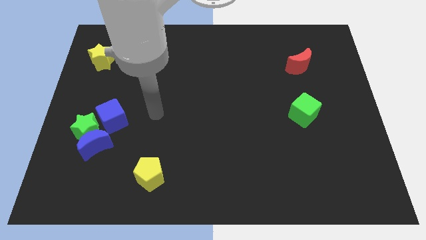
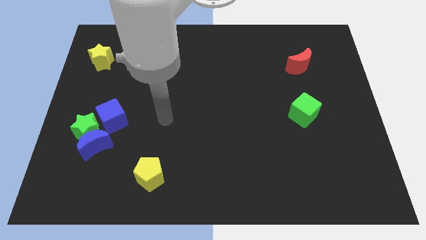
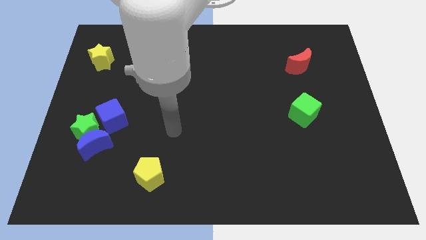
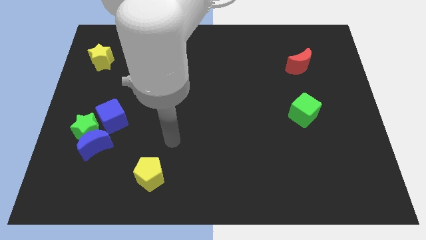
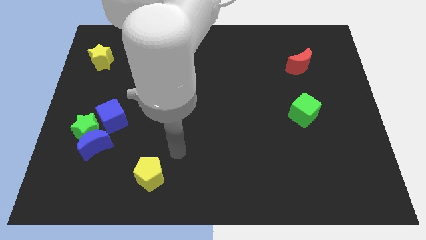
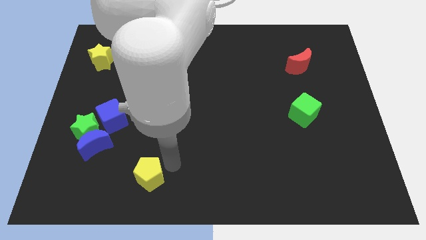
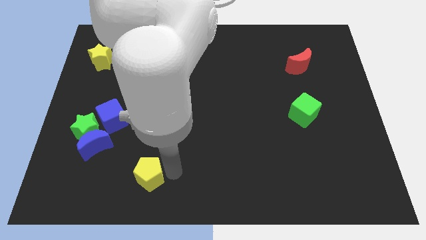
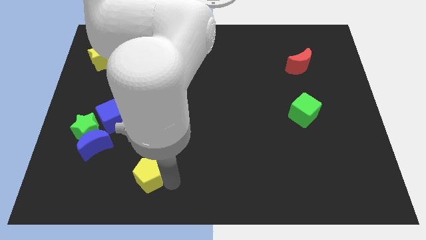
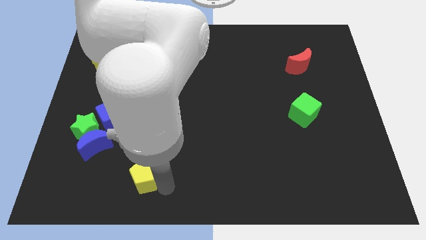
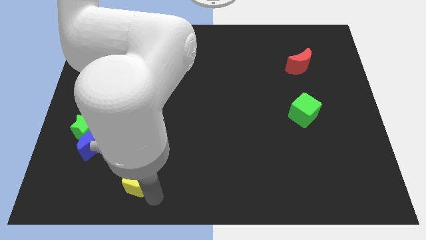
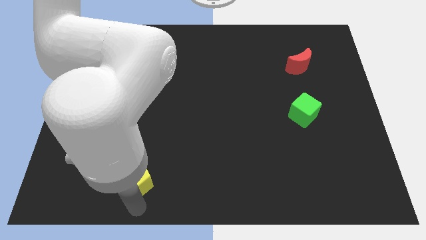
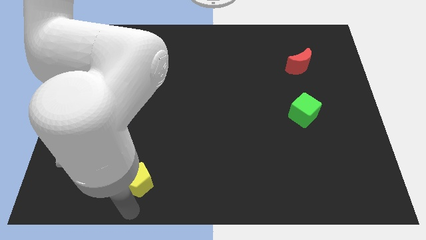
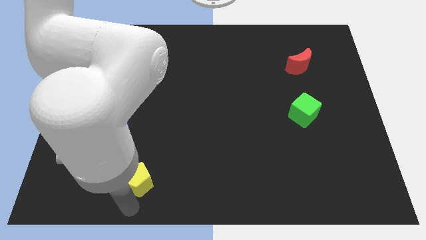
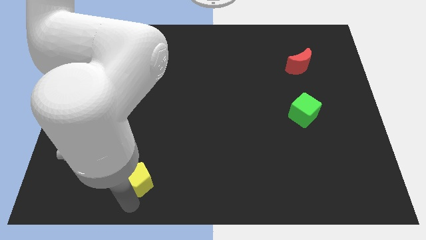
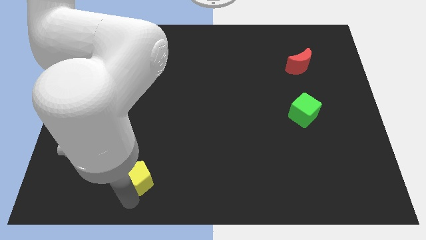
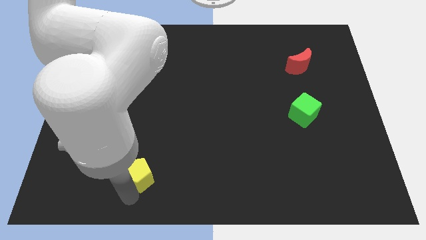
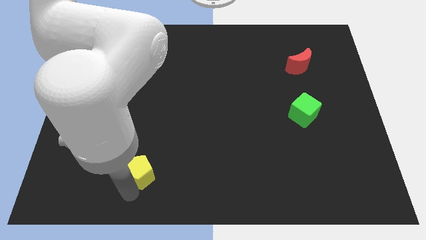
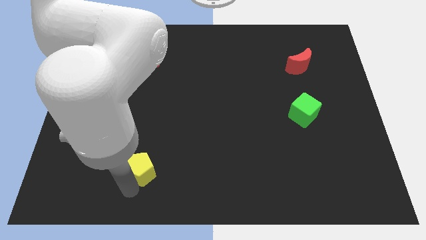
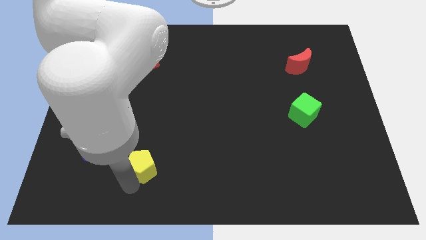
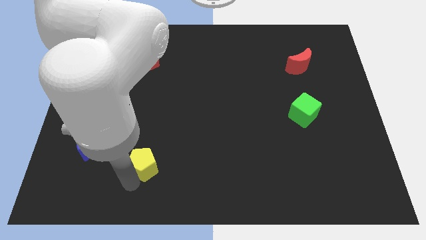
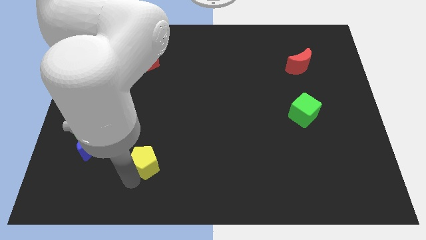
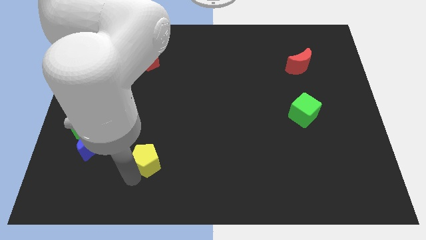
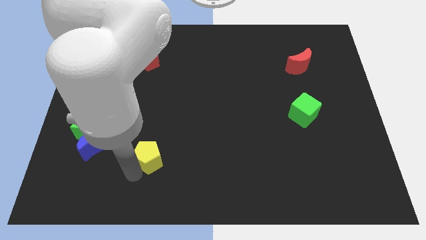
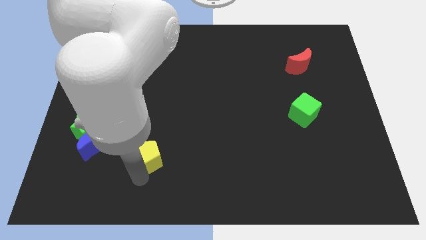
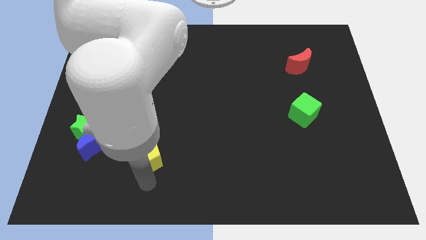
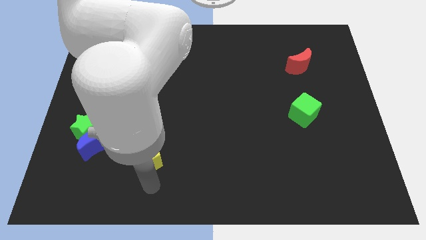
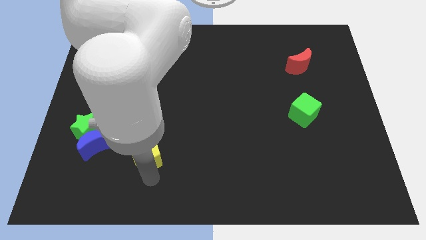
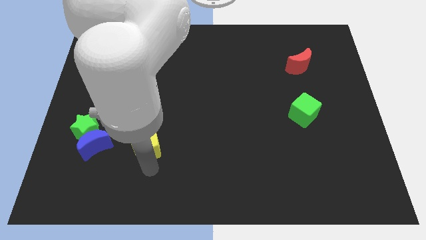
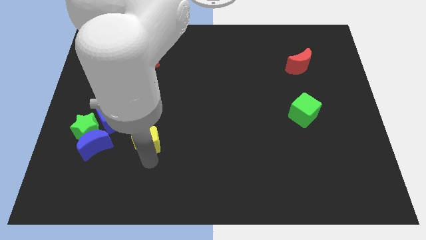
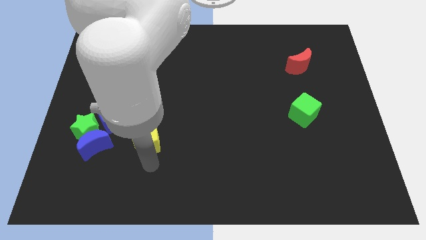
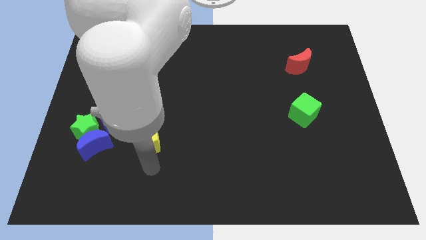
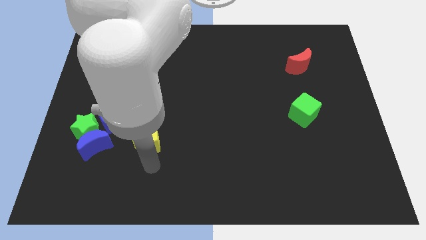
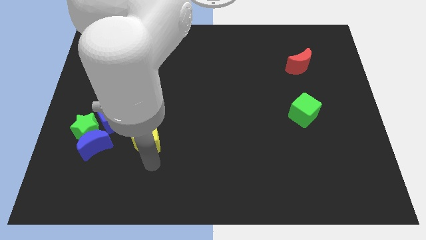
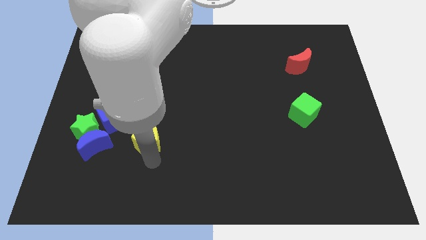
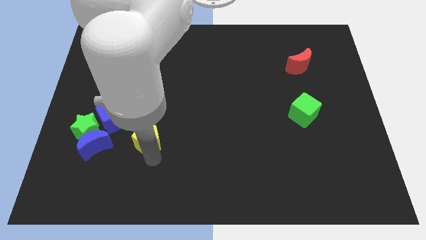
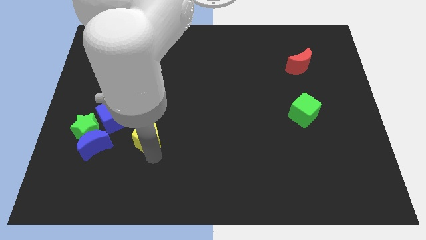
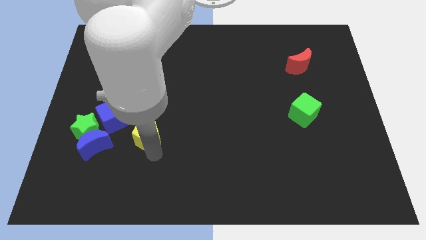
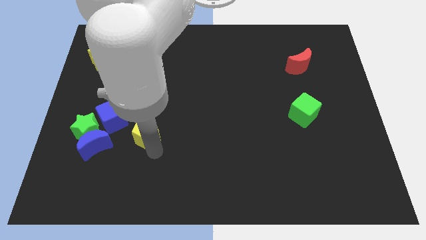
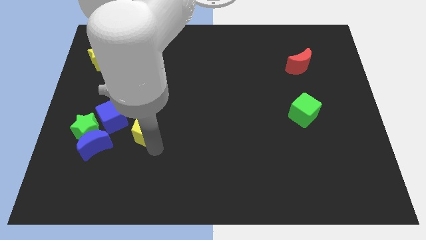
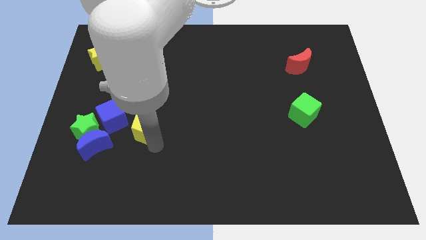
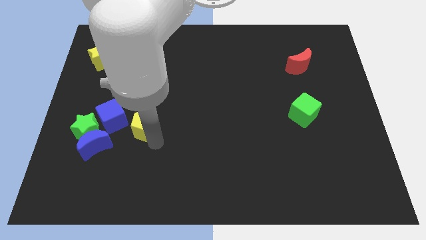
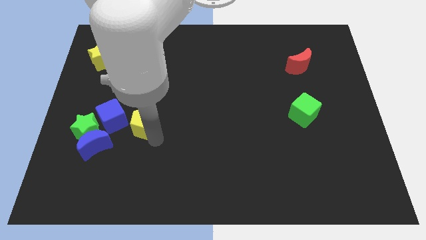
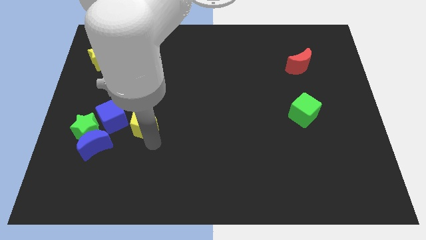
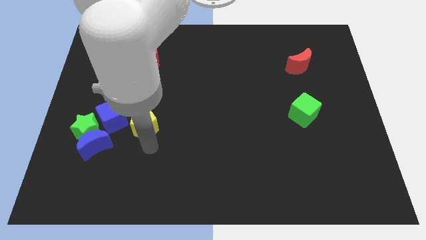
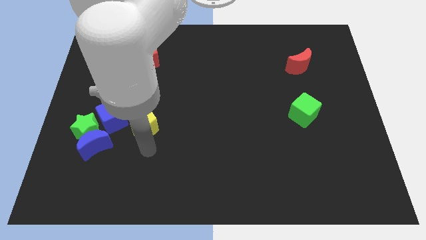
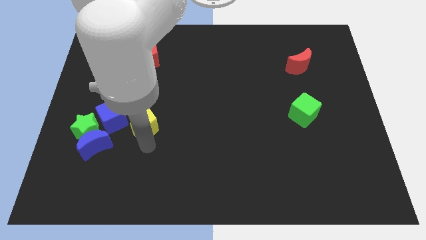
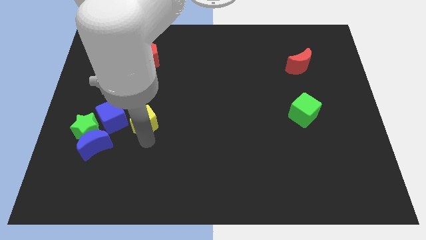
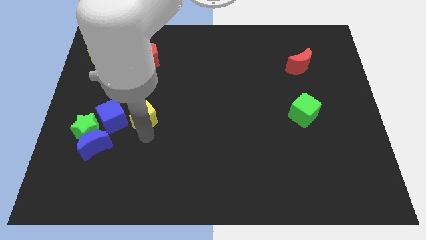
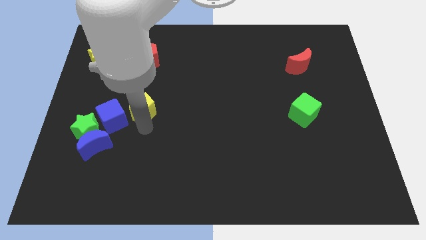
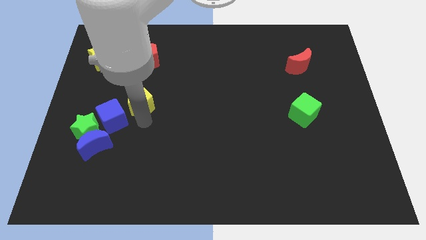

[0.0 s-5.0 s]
put the yellow pentagon below the red pentagon

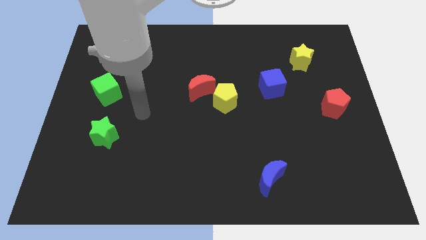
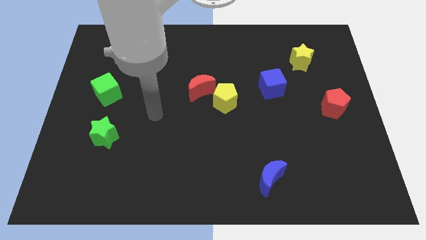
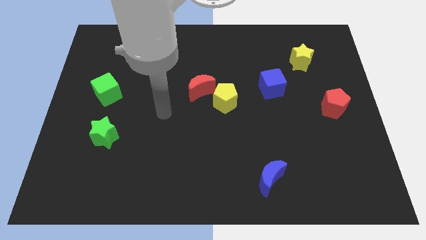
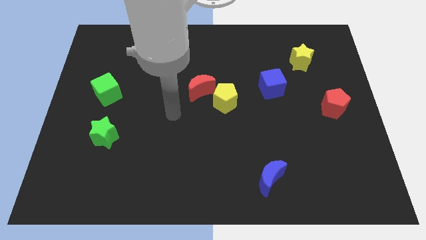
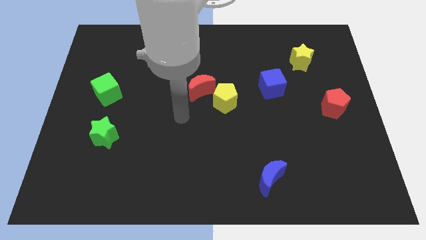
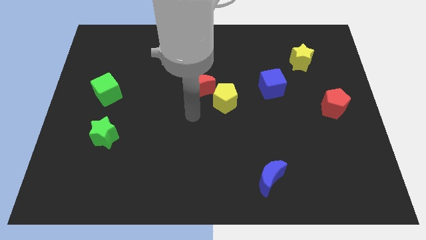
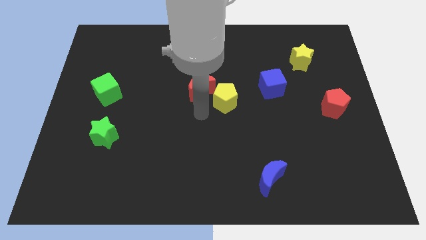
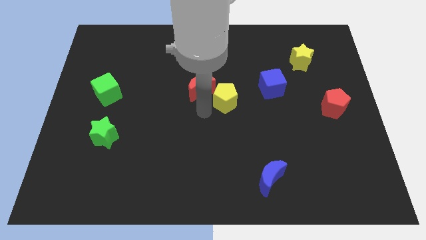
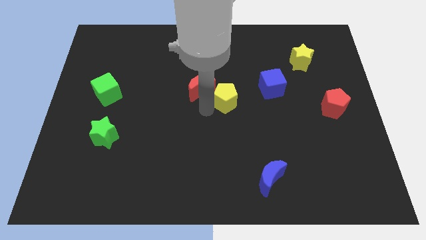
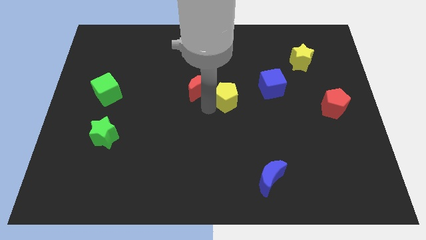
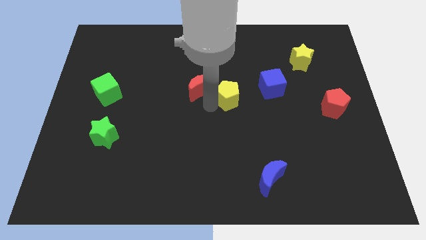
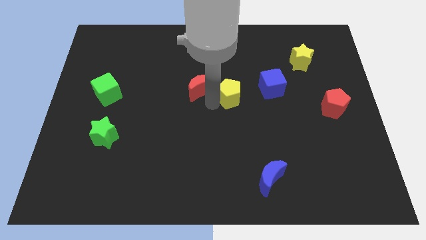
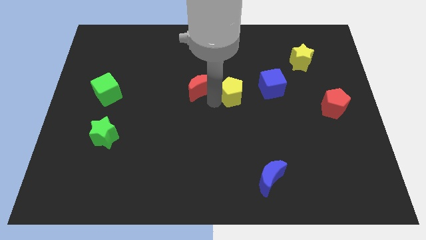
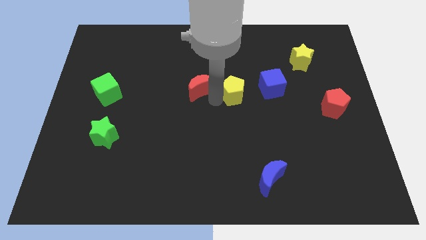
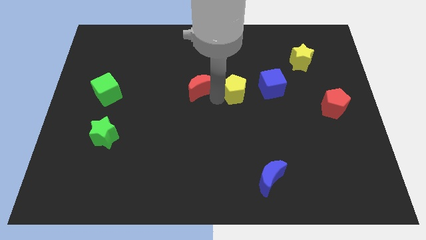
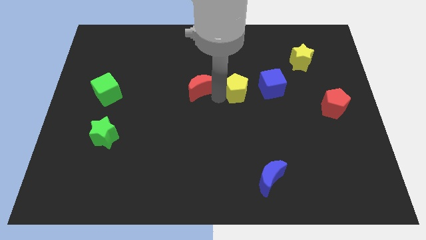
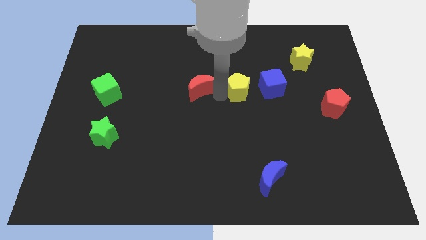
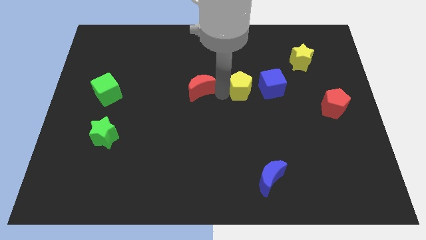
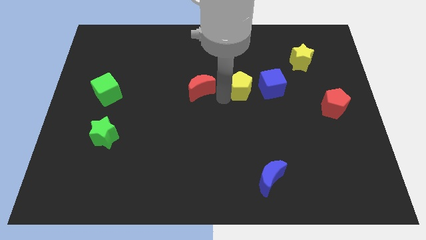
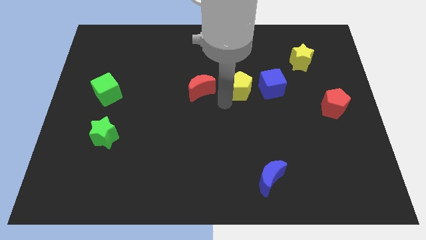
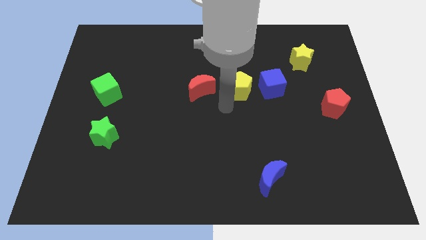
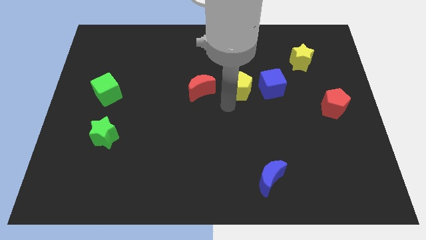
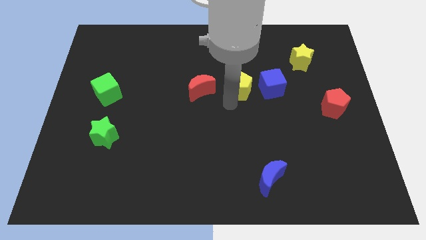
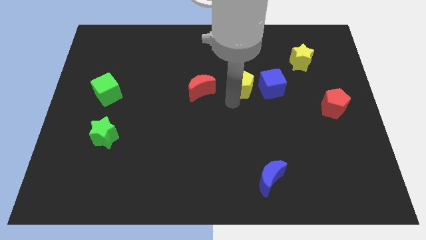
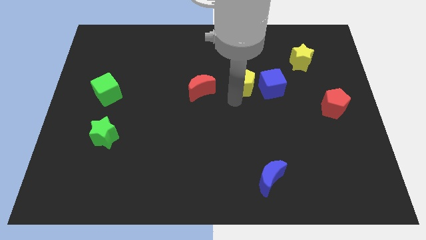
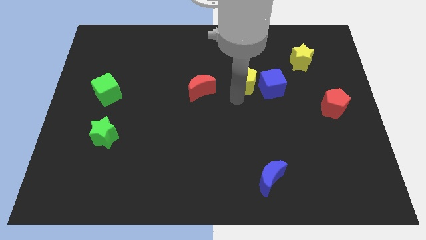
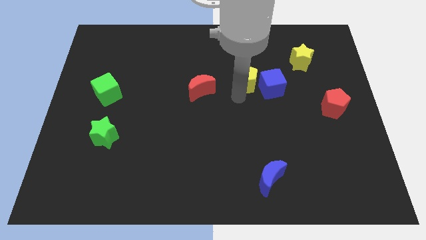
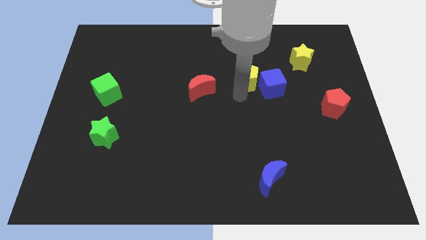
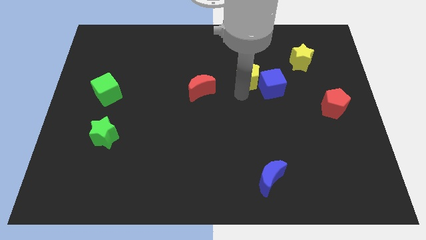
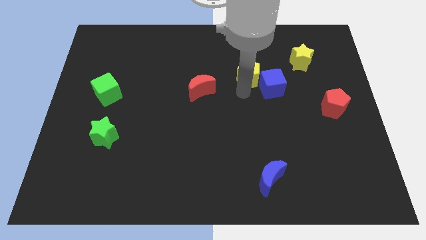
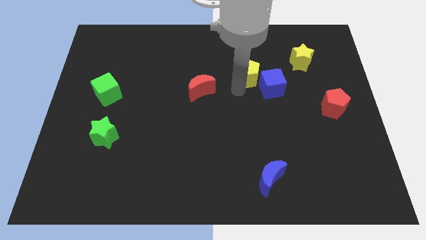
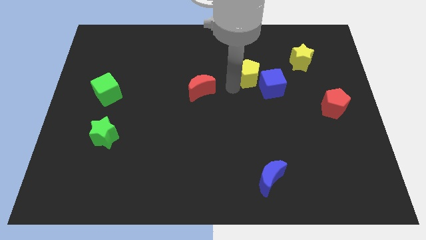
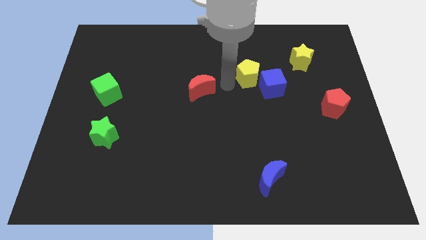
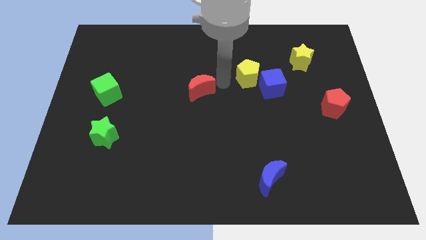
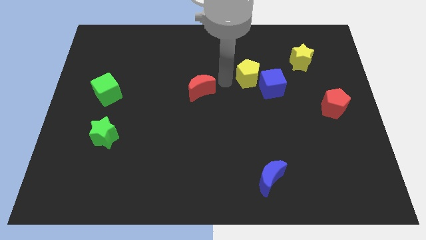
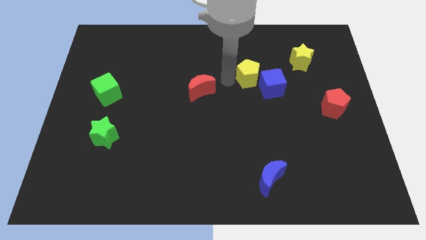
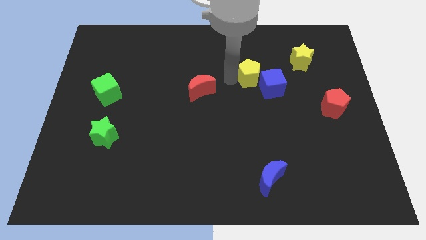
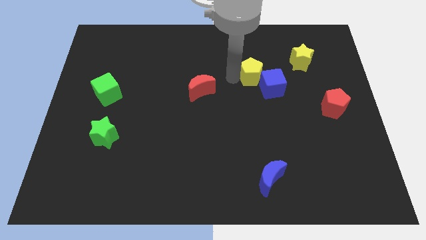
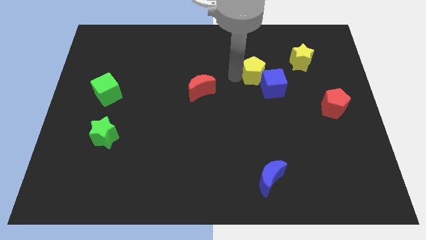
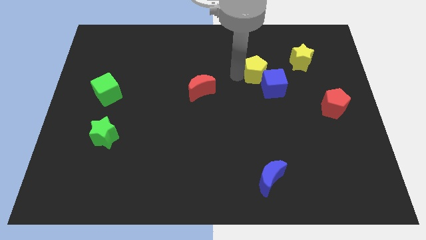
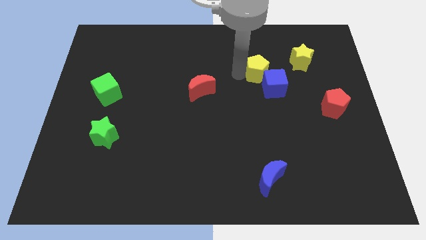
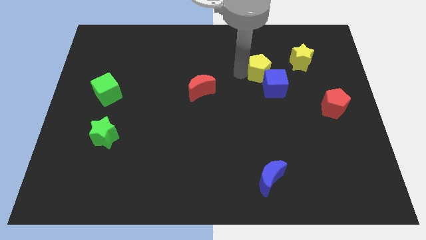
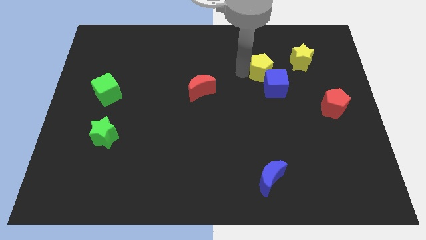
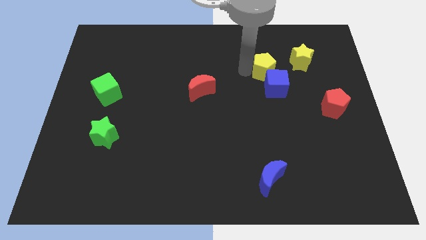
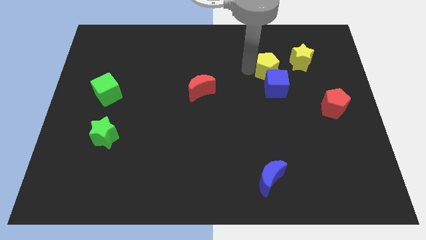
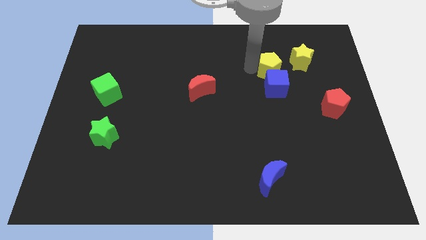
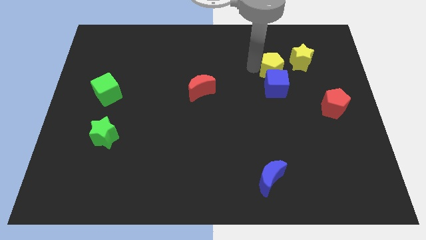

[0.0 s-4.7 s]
push the yellow pentagon to the top right of the blue cube
